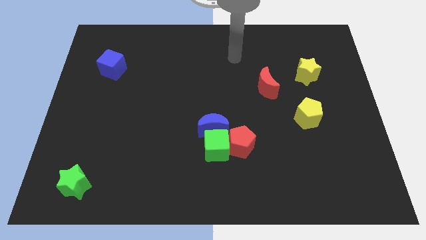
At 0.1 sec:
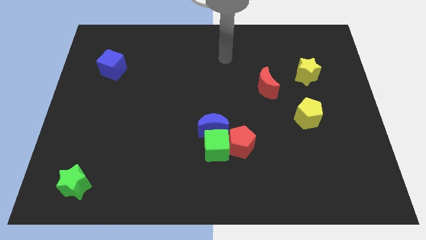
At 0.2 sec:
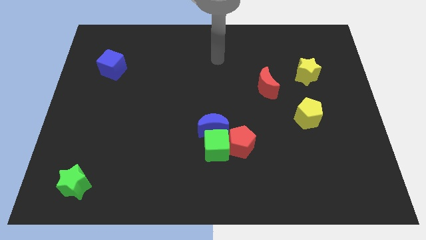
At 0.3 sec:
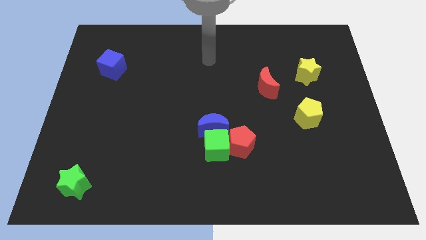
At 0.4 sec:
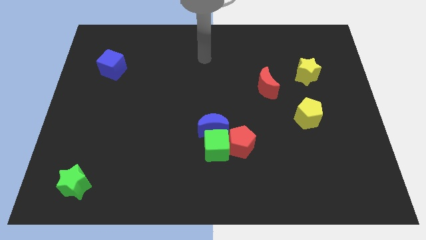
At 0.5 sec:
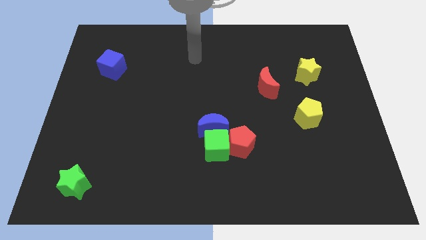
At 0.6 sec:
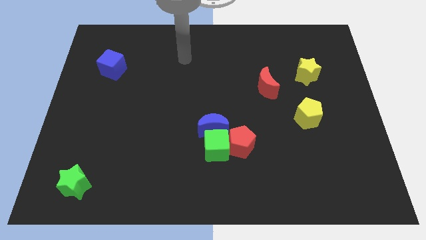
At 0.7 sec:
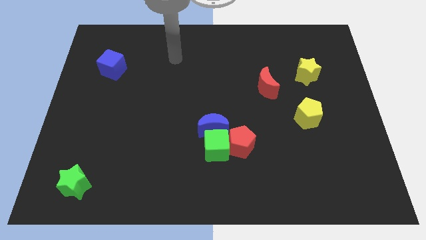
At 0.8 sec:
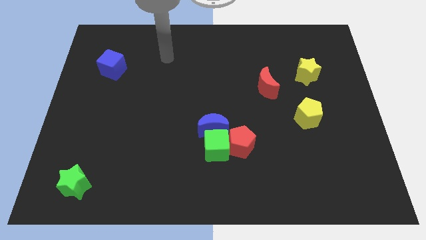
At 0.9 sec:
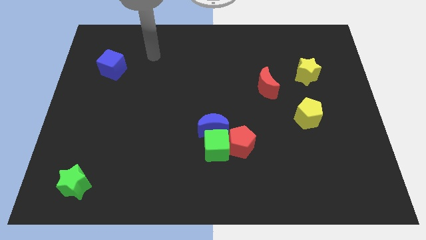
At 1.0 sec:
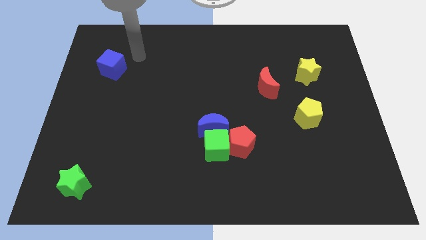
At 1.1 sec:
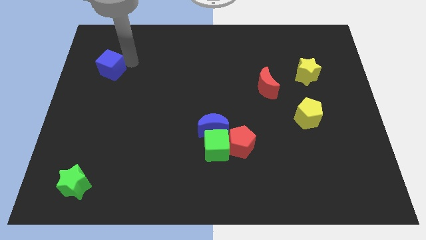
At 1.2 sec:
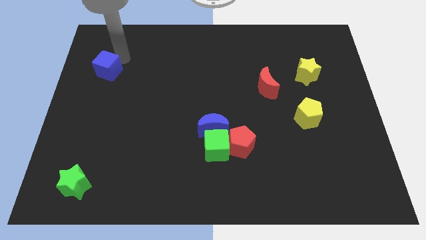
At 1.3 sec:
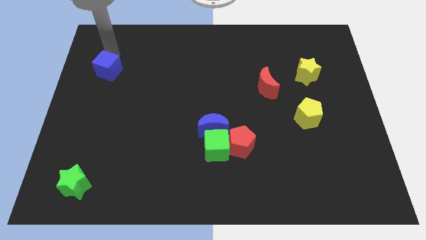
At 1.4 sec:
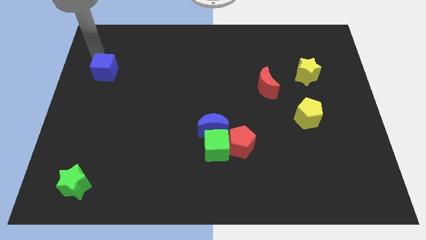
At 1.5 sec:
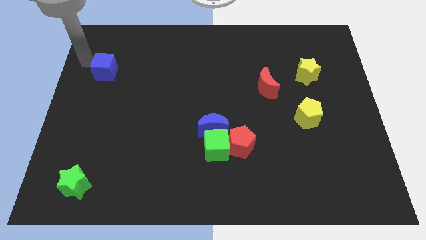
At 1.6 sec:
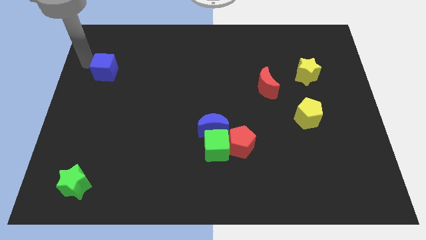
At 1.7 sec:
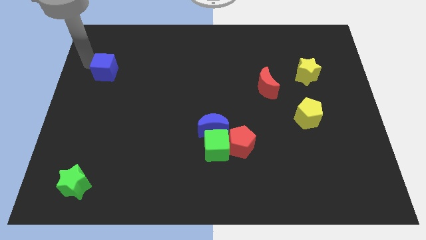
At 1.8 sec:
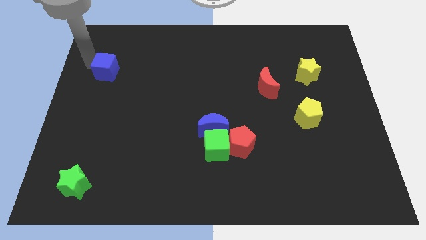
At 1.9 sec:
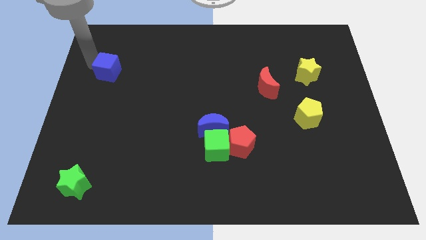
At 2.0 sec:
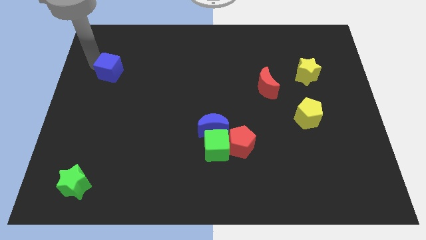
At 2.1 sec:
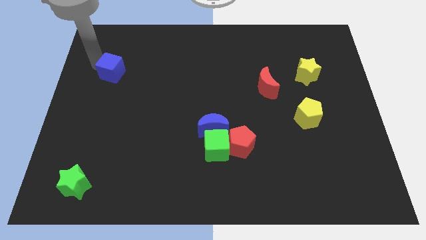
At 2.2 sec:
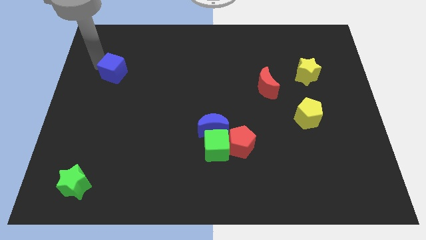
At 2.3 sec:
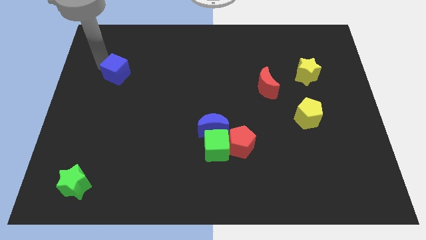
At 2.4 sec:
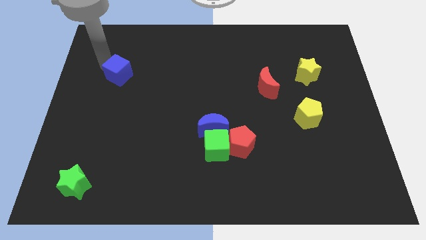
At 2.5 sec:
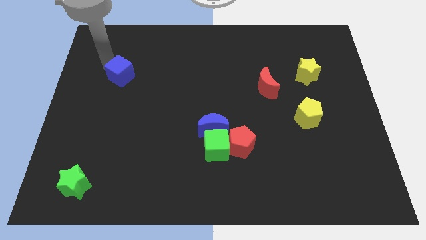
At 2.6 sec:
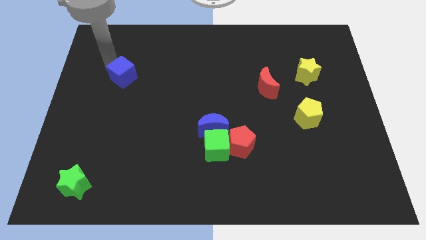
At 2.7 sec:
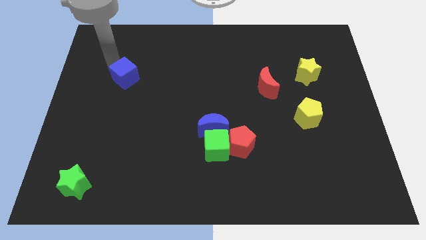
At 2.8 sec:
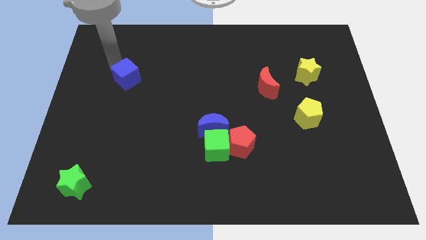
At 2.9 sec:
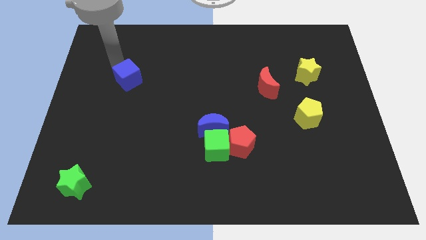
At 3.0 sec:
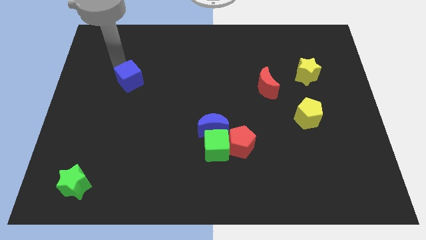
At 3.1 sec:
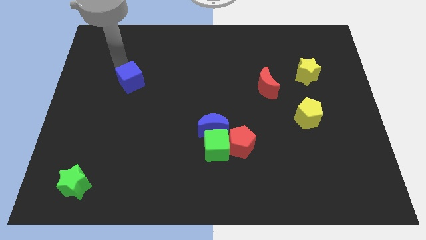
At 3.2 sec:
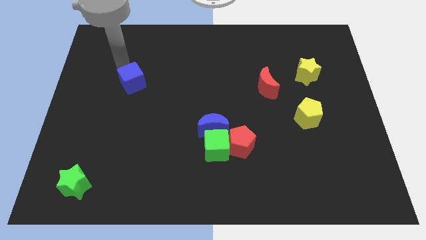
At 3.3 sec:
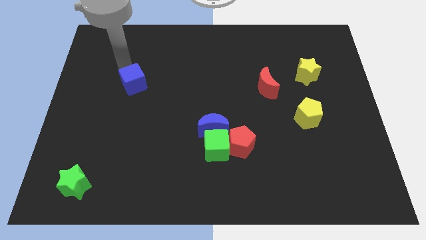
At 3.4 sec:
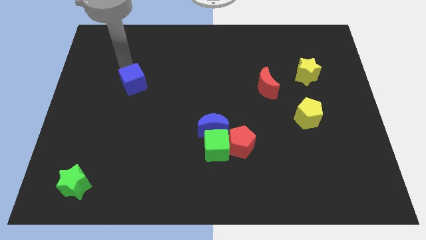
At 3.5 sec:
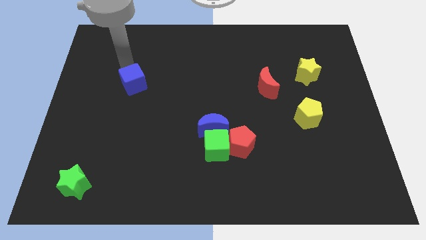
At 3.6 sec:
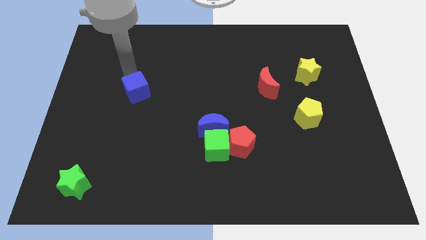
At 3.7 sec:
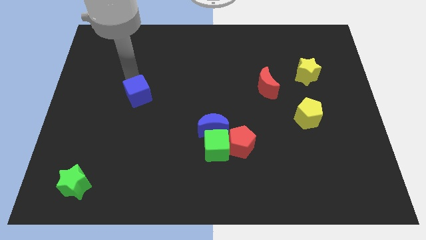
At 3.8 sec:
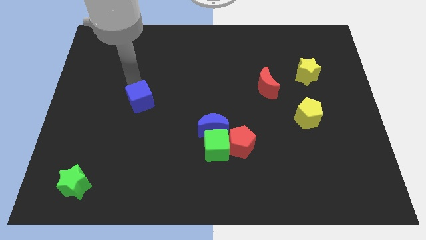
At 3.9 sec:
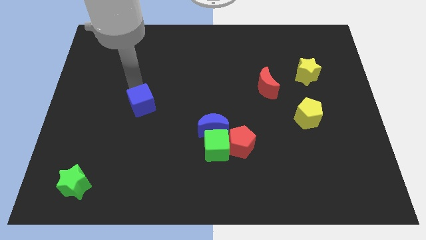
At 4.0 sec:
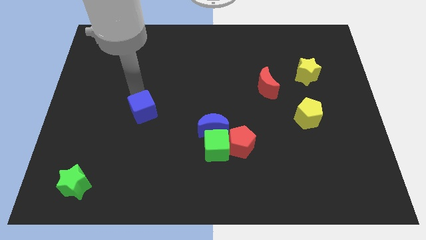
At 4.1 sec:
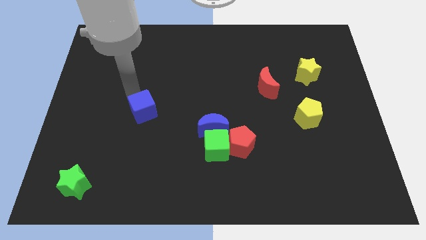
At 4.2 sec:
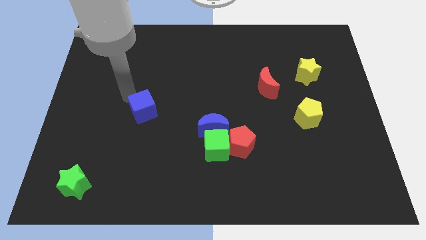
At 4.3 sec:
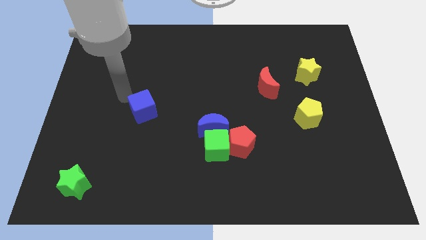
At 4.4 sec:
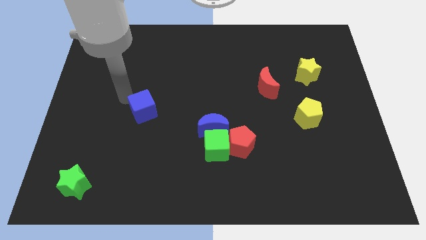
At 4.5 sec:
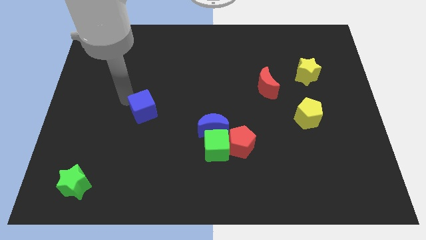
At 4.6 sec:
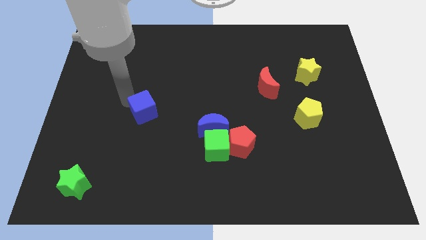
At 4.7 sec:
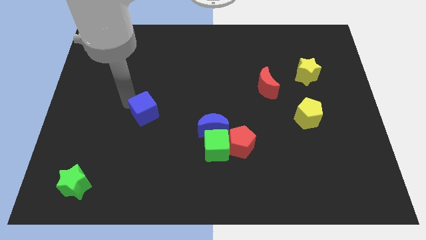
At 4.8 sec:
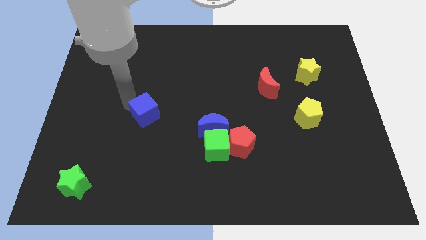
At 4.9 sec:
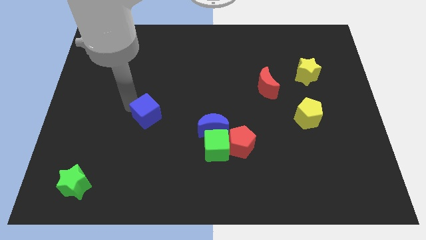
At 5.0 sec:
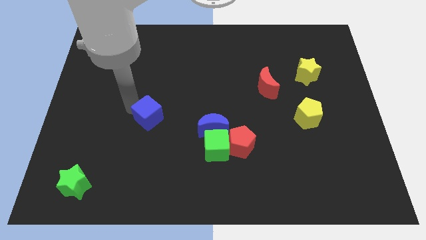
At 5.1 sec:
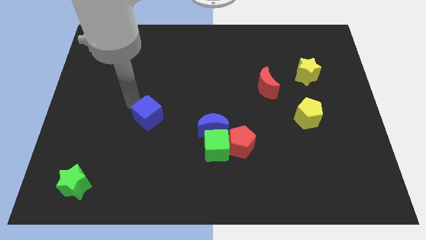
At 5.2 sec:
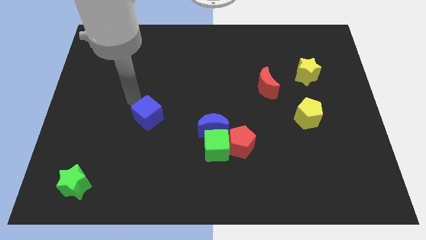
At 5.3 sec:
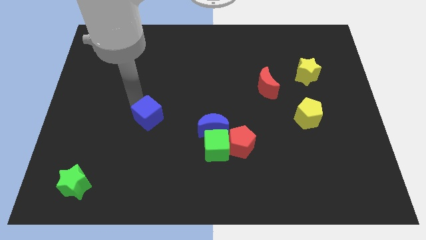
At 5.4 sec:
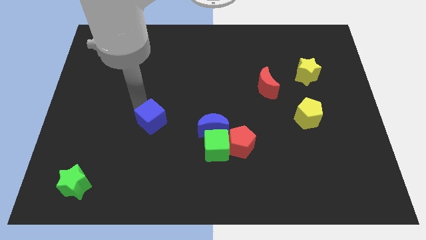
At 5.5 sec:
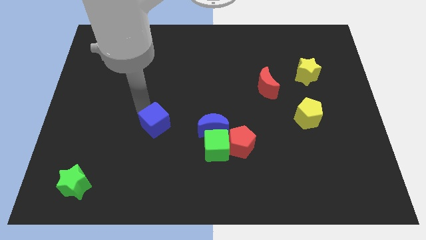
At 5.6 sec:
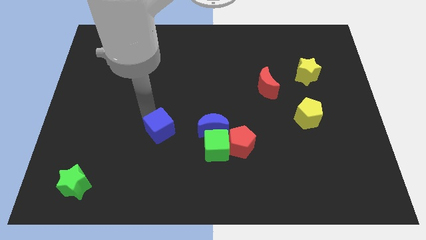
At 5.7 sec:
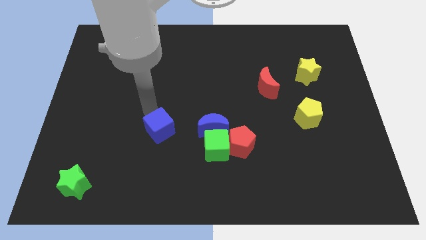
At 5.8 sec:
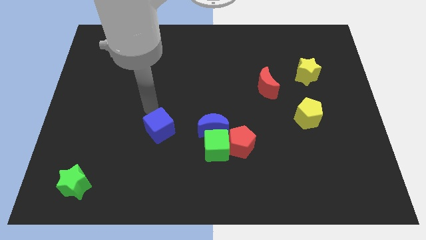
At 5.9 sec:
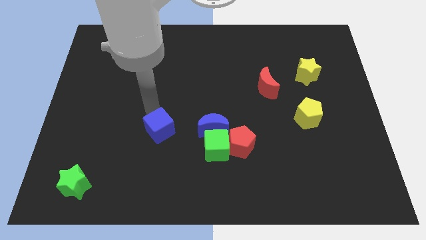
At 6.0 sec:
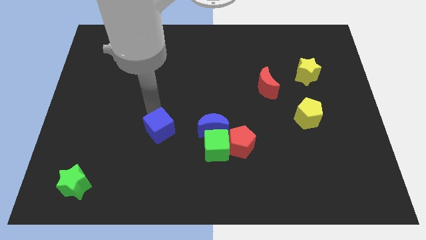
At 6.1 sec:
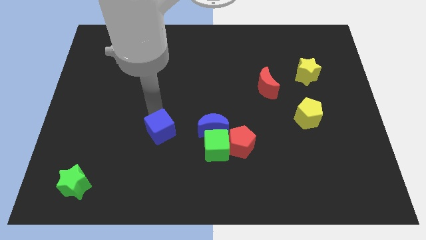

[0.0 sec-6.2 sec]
put the blue cube left of the green cube
